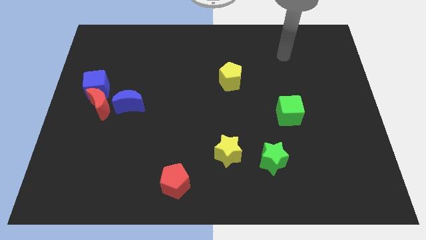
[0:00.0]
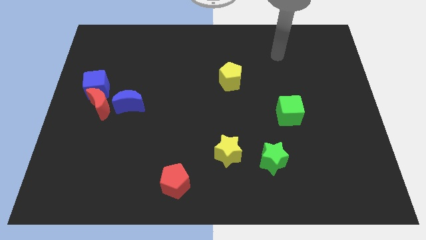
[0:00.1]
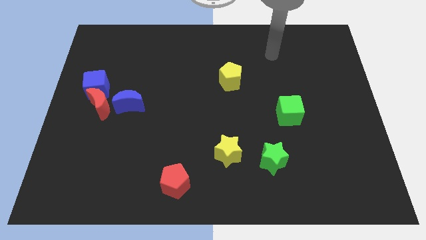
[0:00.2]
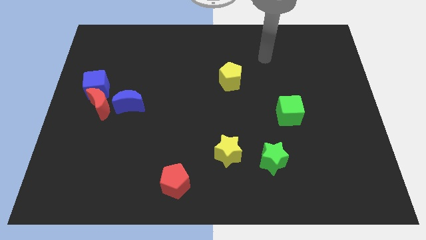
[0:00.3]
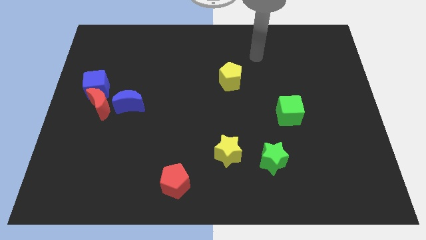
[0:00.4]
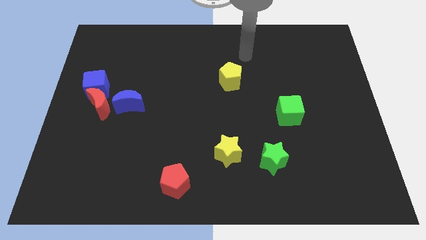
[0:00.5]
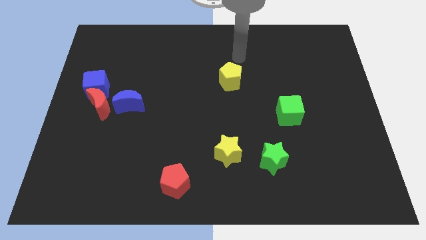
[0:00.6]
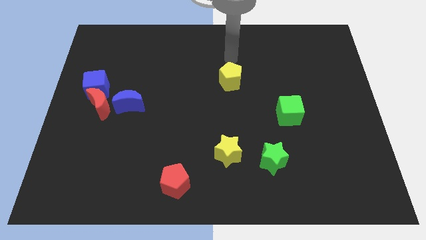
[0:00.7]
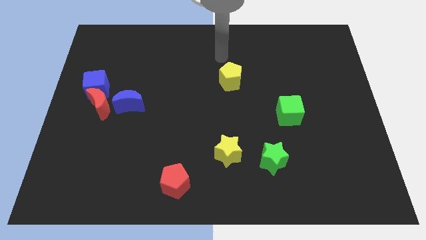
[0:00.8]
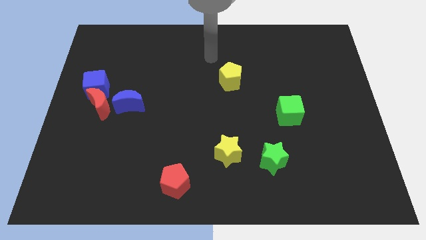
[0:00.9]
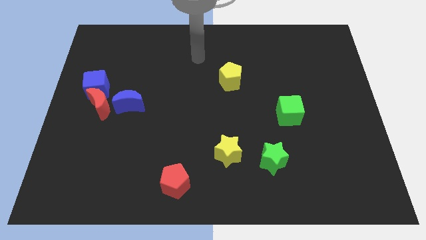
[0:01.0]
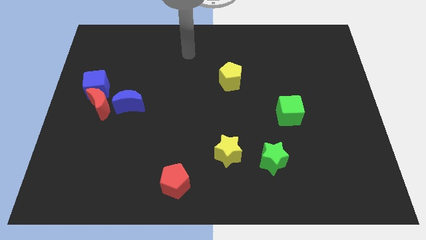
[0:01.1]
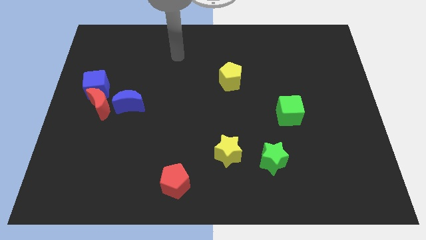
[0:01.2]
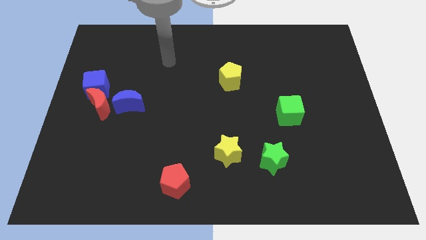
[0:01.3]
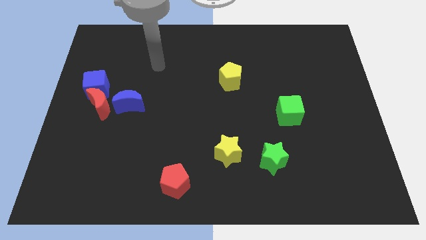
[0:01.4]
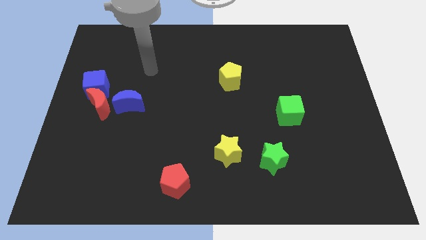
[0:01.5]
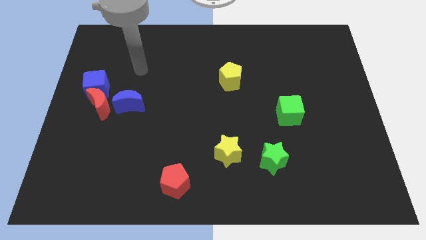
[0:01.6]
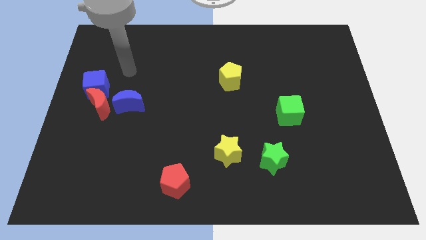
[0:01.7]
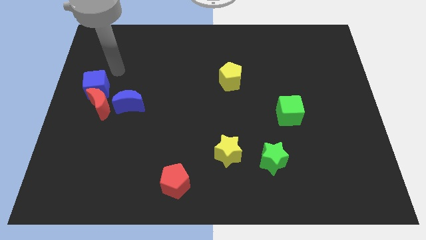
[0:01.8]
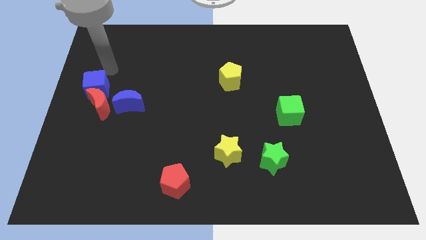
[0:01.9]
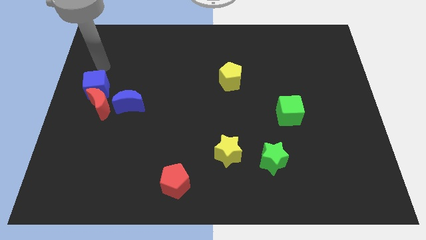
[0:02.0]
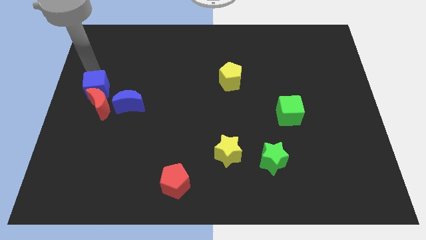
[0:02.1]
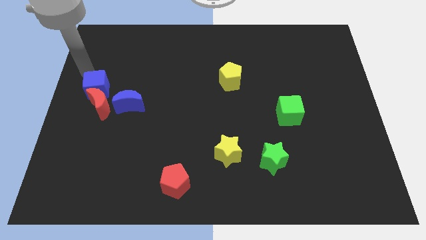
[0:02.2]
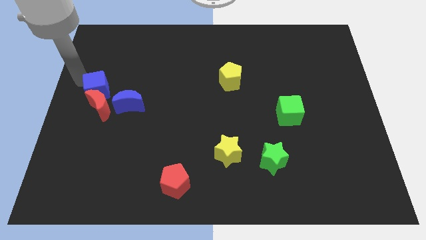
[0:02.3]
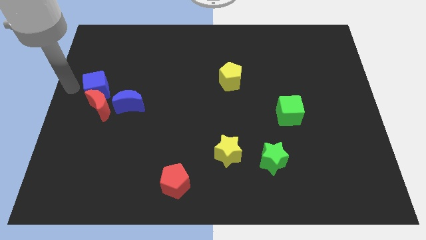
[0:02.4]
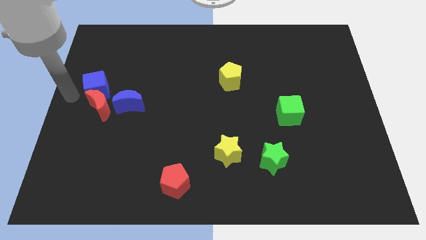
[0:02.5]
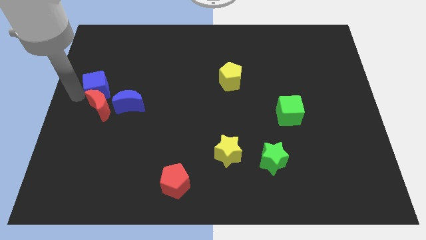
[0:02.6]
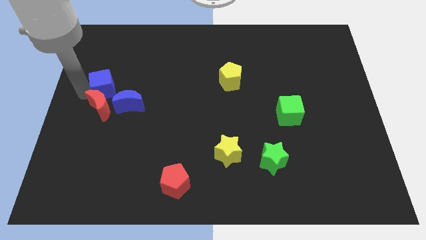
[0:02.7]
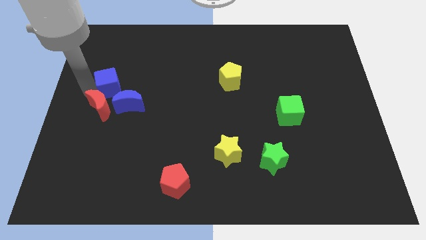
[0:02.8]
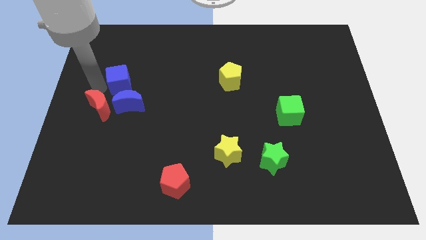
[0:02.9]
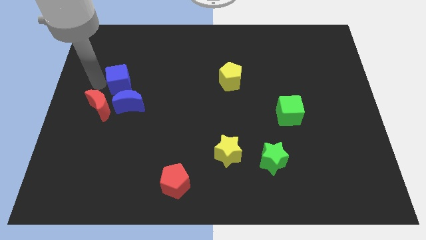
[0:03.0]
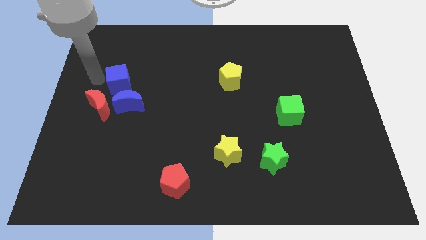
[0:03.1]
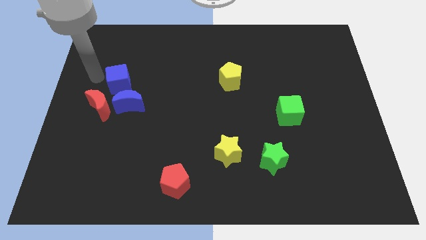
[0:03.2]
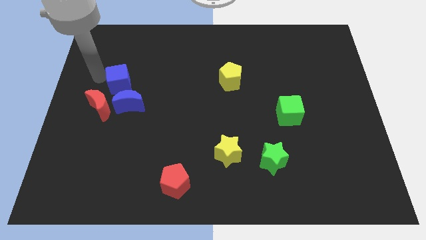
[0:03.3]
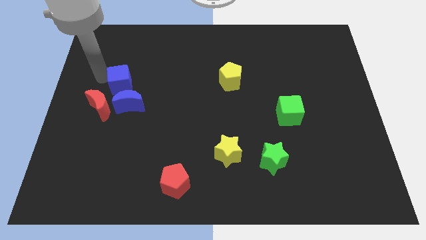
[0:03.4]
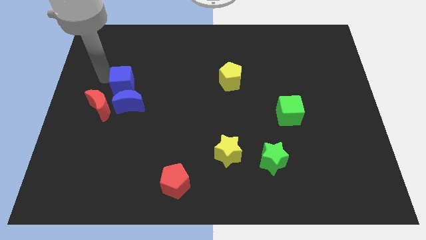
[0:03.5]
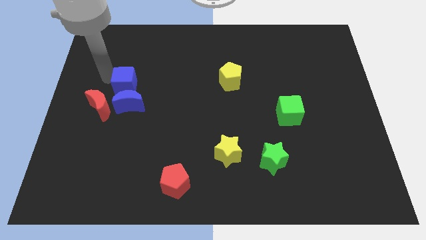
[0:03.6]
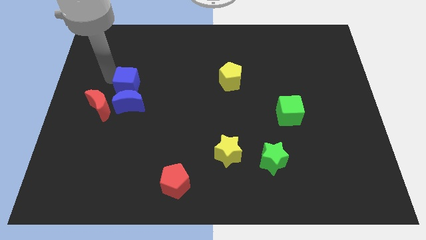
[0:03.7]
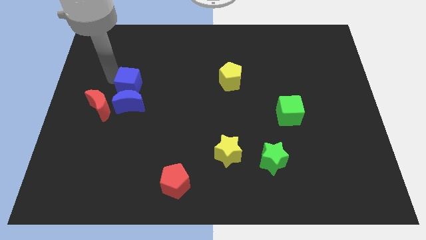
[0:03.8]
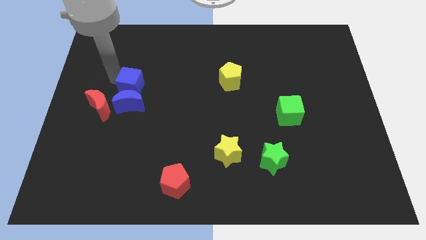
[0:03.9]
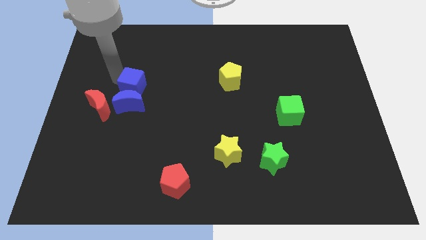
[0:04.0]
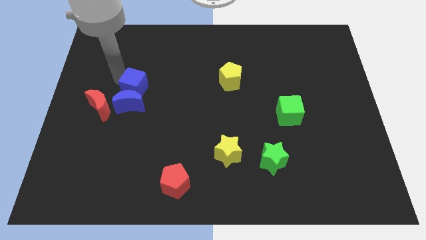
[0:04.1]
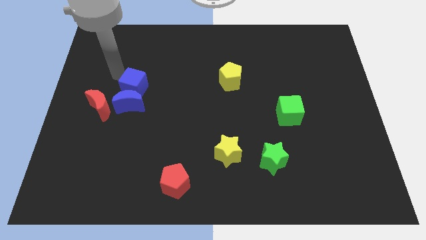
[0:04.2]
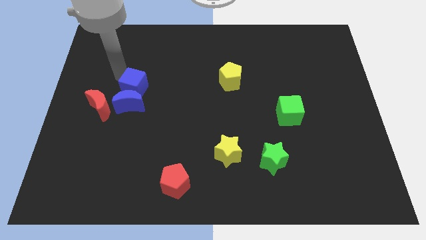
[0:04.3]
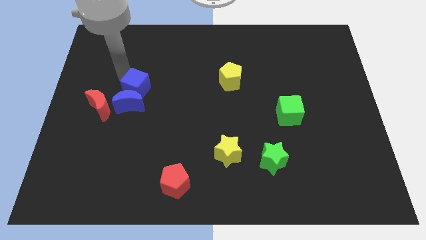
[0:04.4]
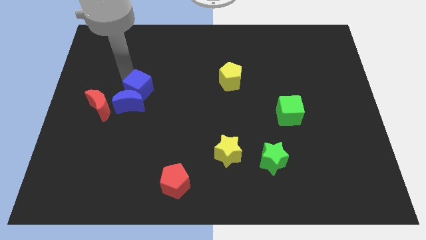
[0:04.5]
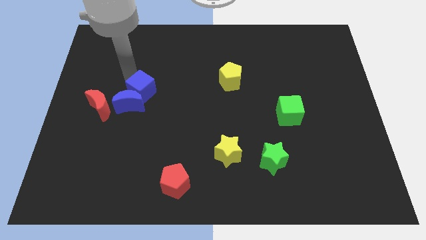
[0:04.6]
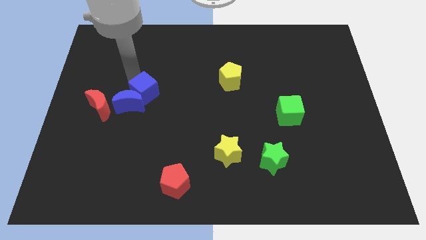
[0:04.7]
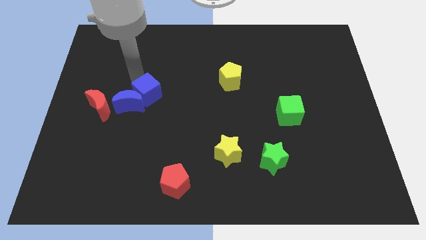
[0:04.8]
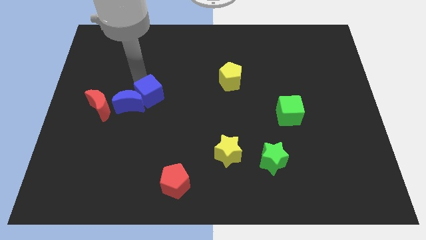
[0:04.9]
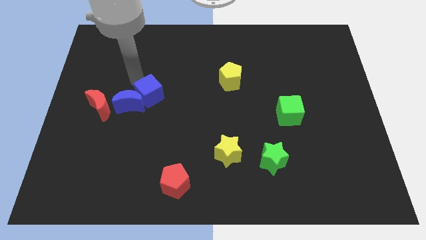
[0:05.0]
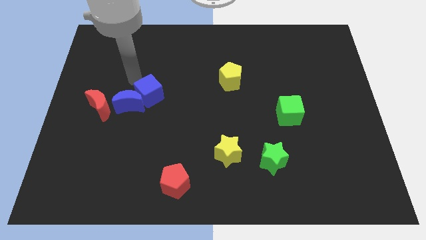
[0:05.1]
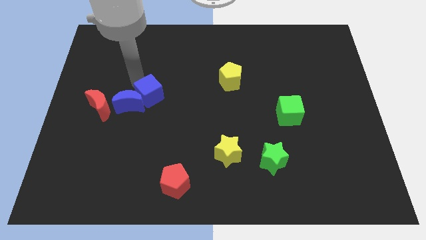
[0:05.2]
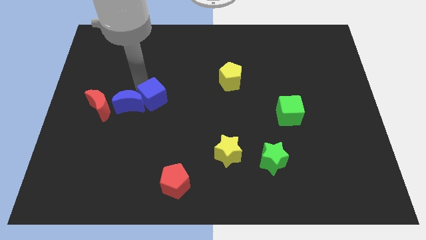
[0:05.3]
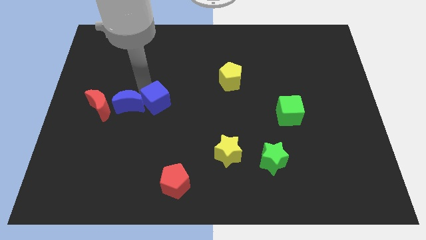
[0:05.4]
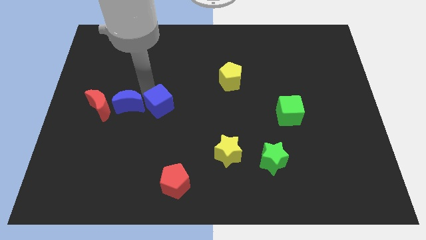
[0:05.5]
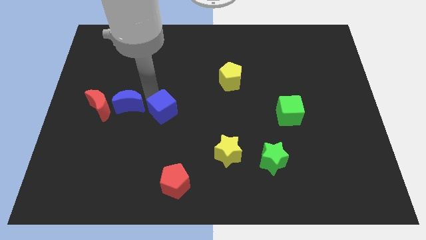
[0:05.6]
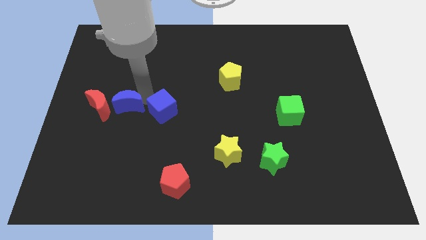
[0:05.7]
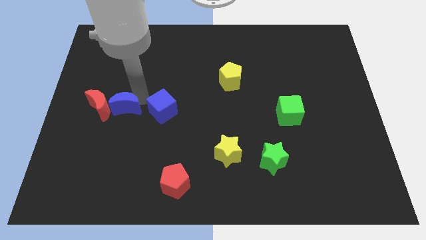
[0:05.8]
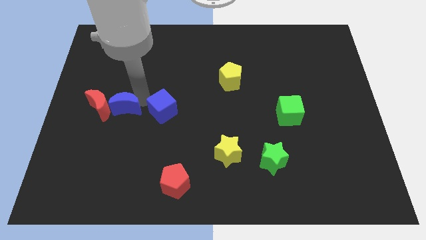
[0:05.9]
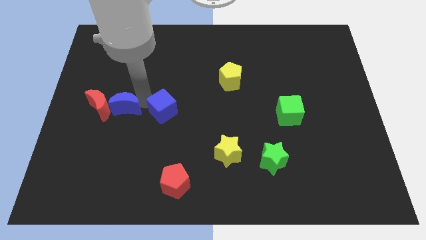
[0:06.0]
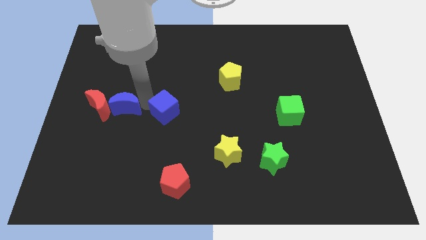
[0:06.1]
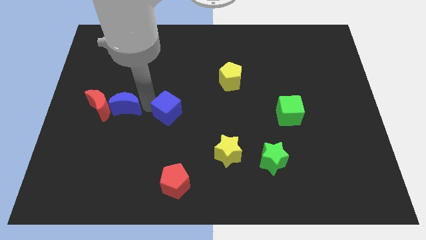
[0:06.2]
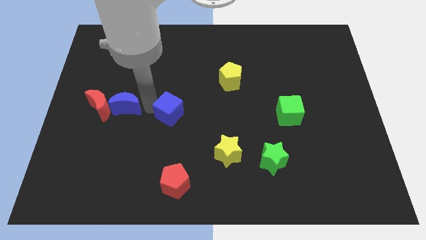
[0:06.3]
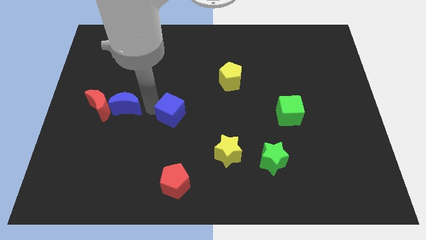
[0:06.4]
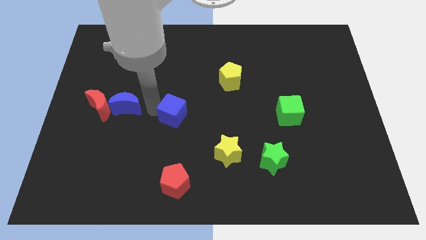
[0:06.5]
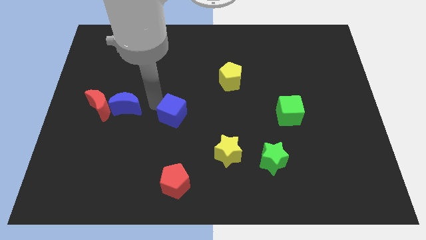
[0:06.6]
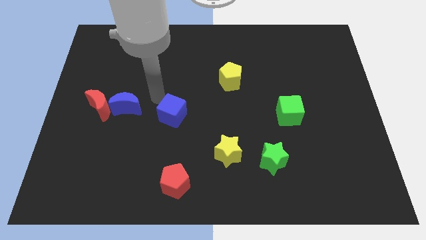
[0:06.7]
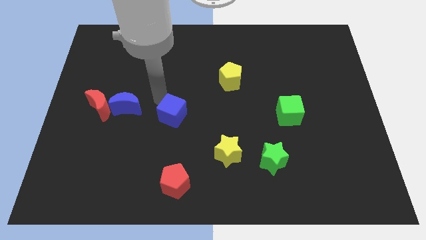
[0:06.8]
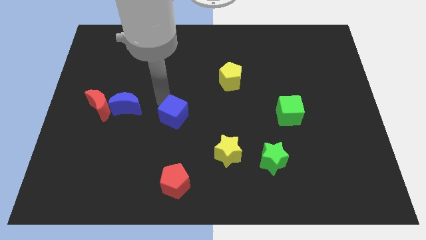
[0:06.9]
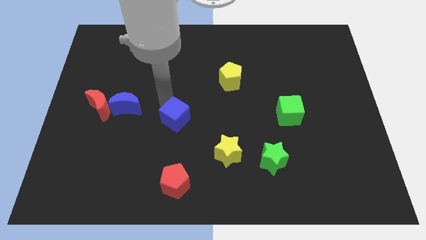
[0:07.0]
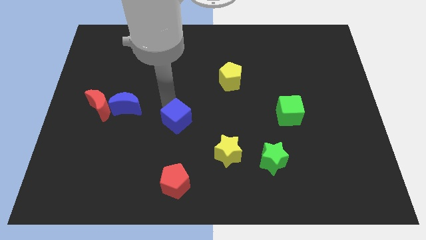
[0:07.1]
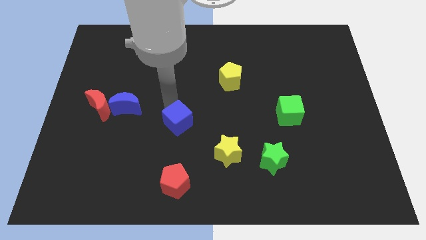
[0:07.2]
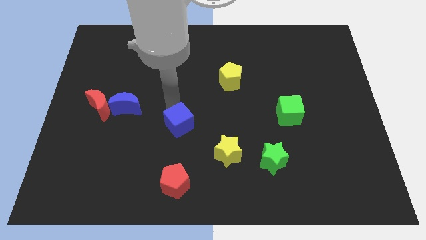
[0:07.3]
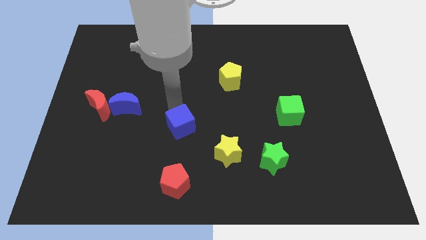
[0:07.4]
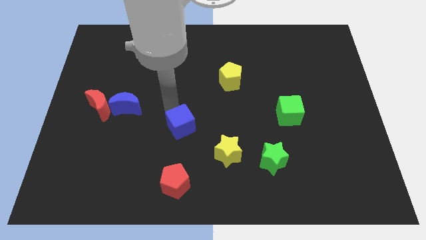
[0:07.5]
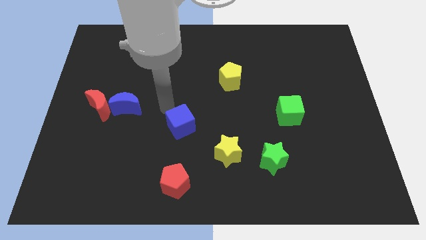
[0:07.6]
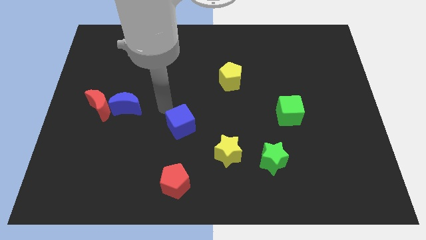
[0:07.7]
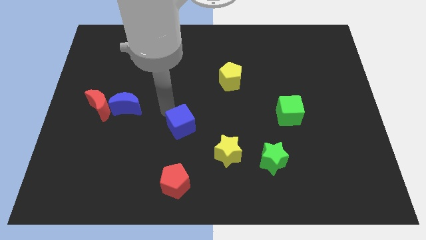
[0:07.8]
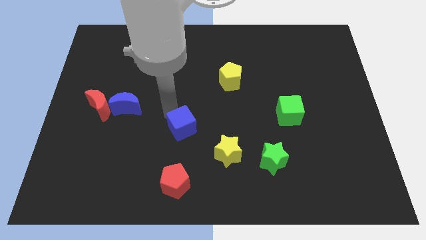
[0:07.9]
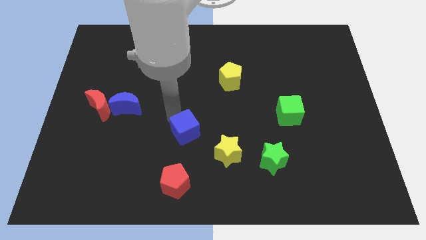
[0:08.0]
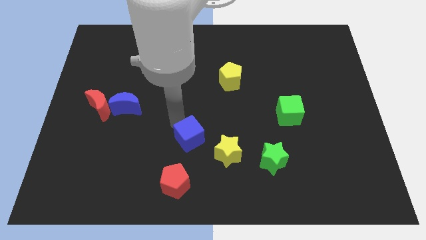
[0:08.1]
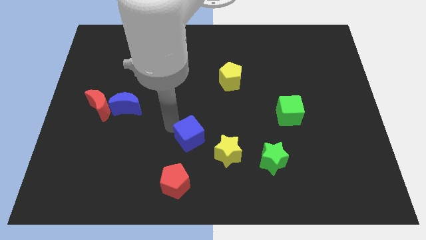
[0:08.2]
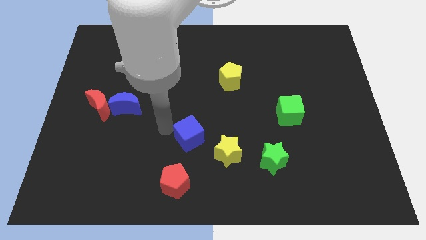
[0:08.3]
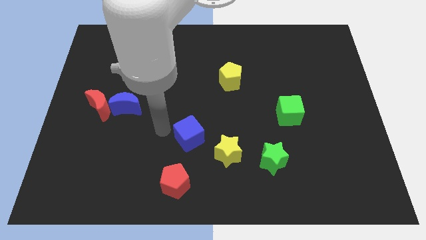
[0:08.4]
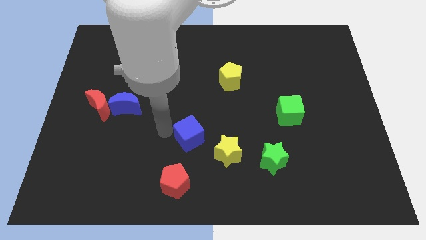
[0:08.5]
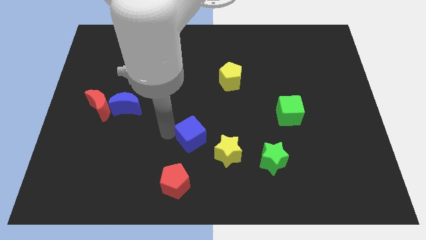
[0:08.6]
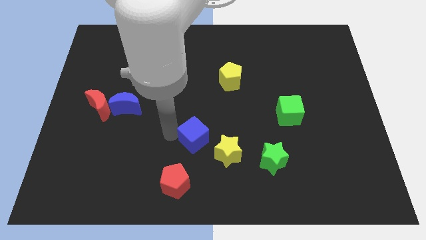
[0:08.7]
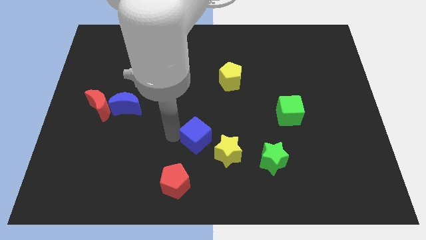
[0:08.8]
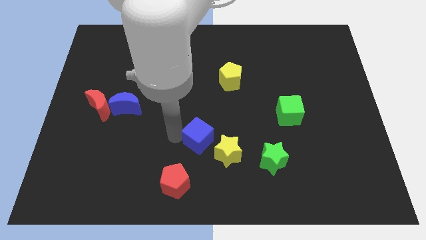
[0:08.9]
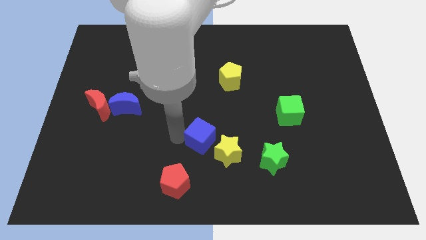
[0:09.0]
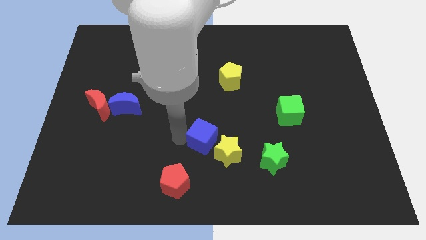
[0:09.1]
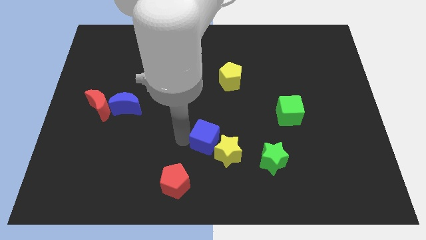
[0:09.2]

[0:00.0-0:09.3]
slide the blue cube towards the yellow star
